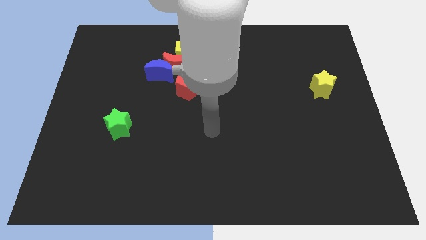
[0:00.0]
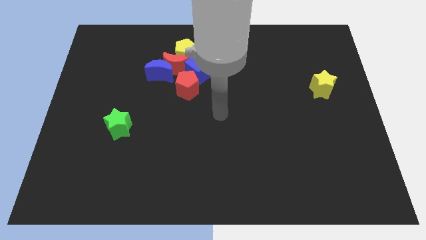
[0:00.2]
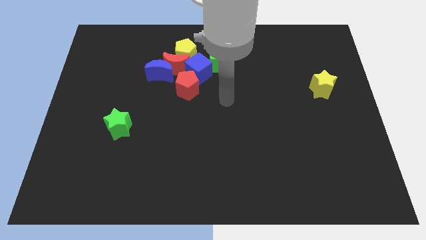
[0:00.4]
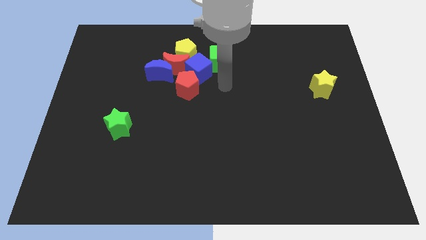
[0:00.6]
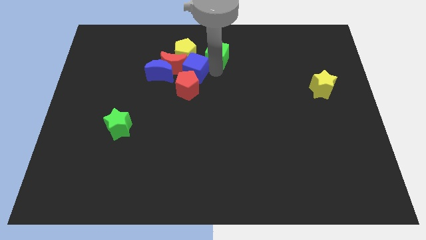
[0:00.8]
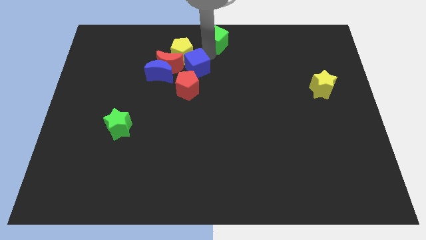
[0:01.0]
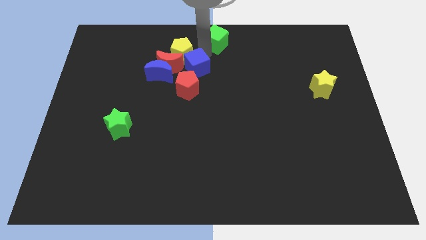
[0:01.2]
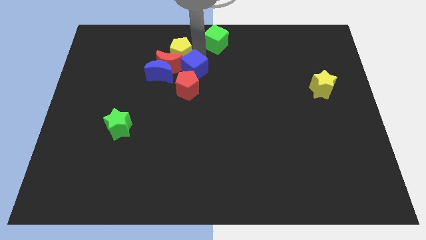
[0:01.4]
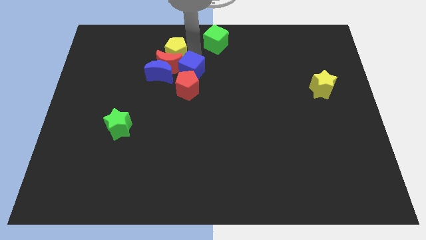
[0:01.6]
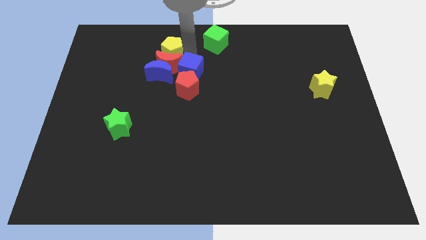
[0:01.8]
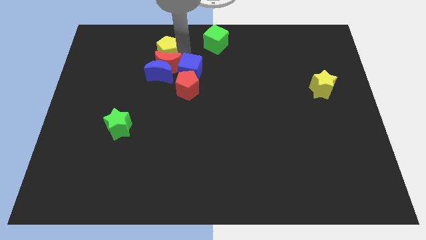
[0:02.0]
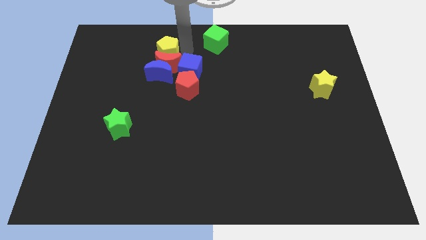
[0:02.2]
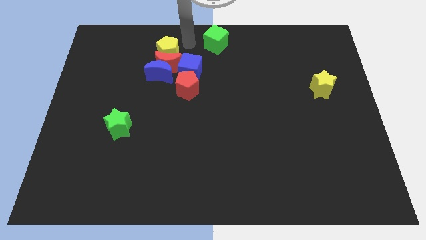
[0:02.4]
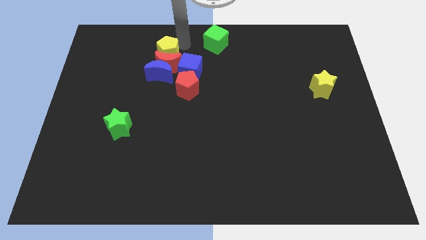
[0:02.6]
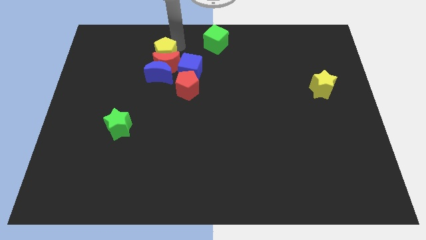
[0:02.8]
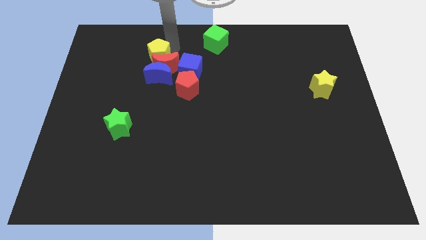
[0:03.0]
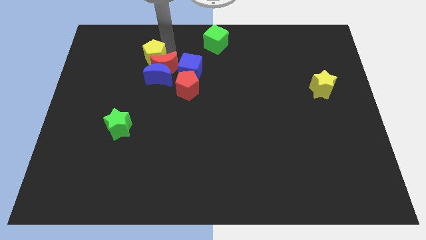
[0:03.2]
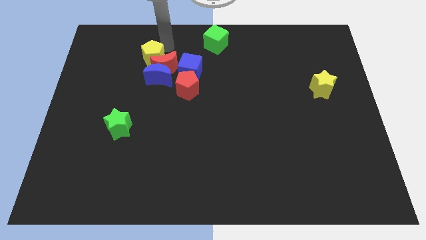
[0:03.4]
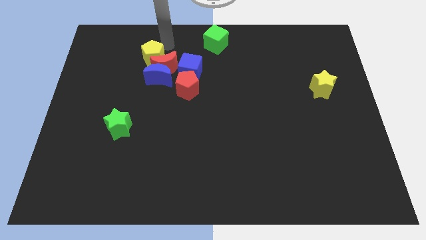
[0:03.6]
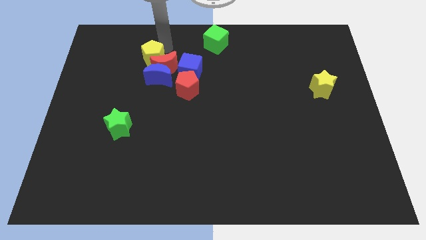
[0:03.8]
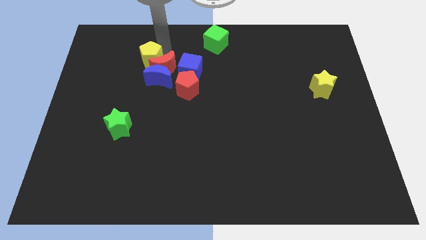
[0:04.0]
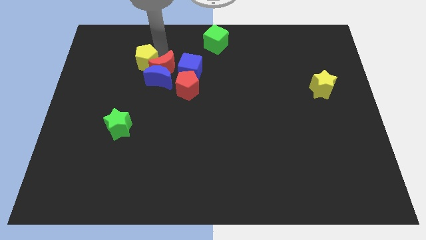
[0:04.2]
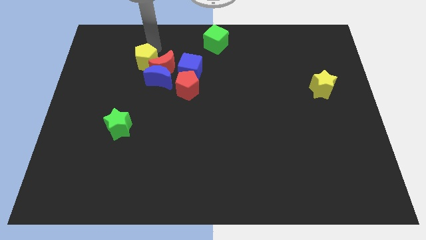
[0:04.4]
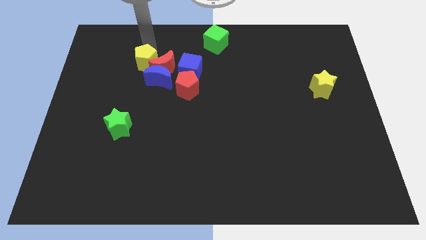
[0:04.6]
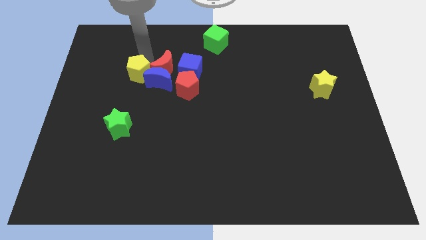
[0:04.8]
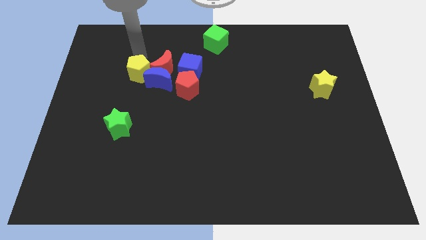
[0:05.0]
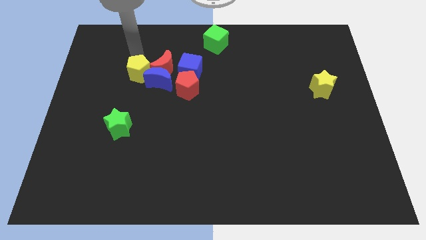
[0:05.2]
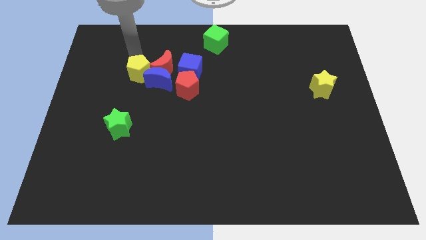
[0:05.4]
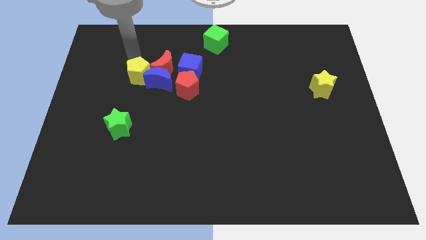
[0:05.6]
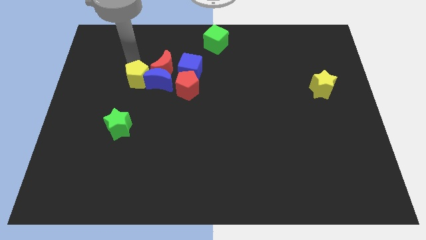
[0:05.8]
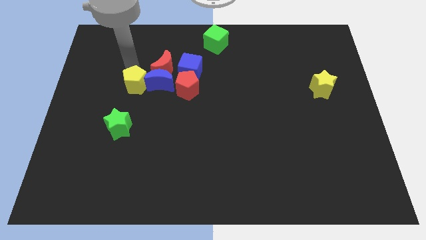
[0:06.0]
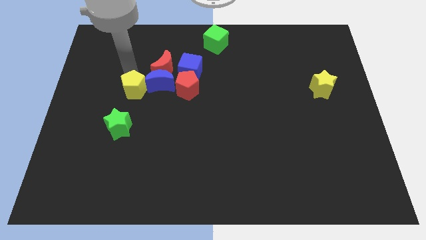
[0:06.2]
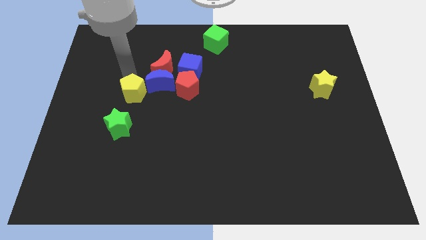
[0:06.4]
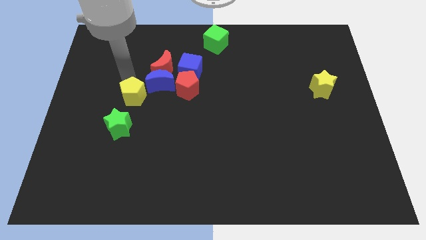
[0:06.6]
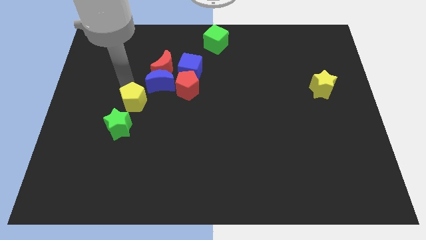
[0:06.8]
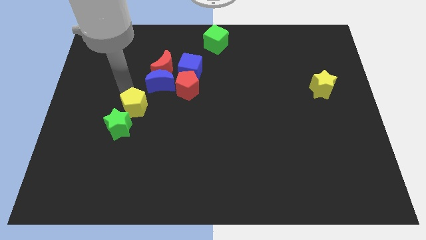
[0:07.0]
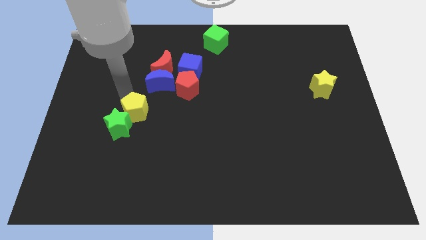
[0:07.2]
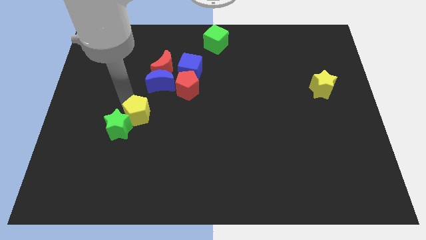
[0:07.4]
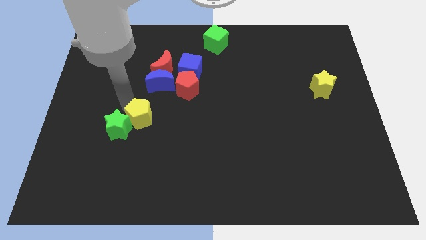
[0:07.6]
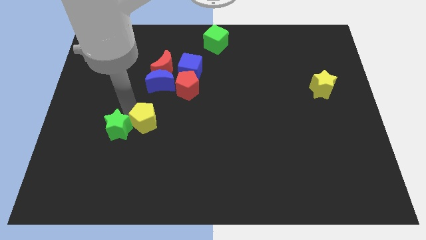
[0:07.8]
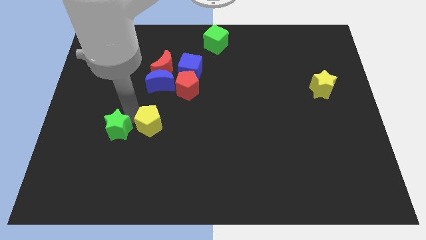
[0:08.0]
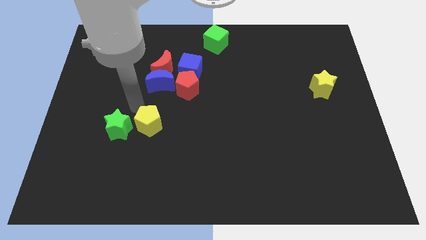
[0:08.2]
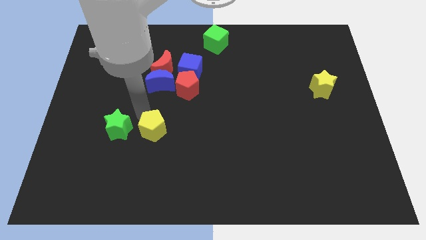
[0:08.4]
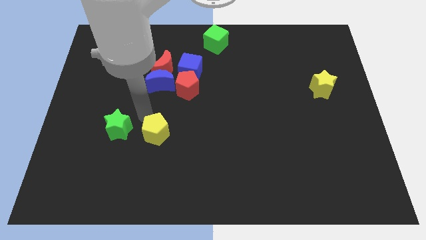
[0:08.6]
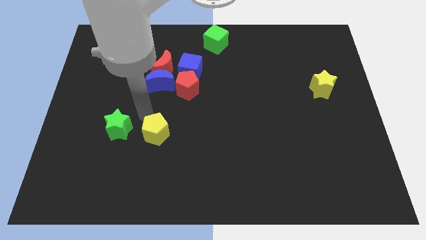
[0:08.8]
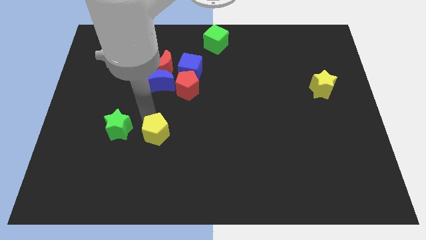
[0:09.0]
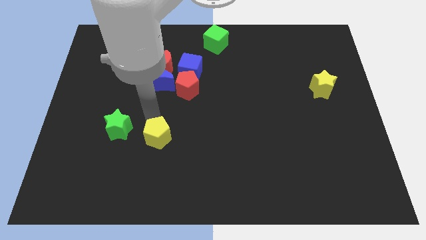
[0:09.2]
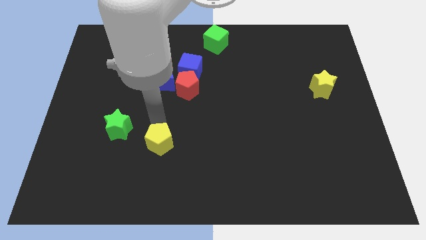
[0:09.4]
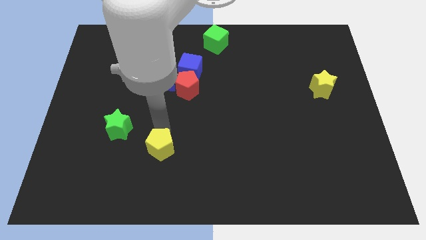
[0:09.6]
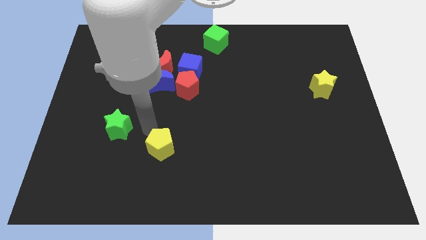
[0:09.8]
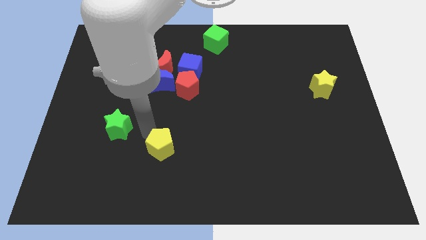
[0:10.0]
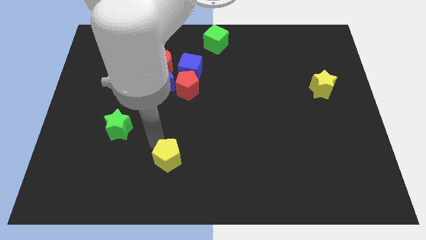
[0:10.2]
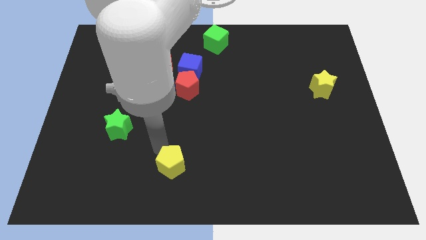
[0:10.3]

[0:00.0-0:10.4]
push the yellow pentagon to the bottom

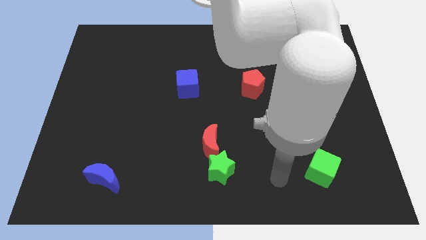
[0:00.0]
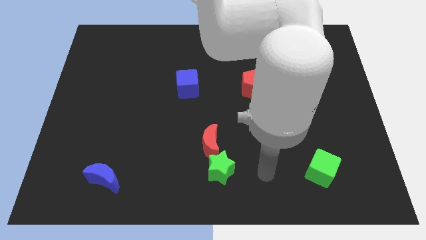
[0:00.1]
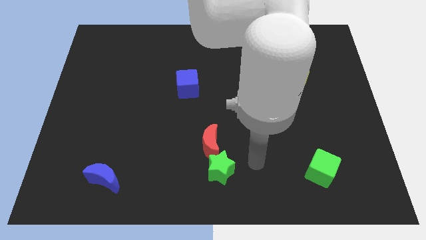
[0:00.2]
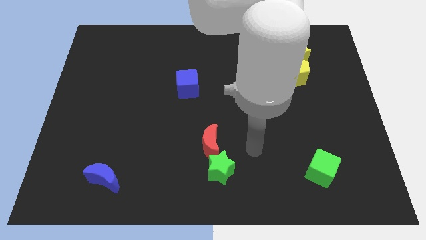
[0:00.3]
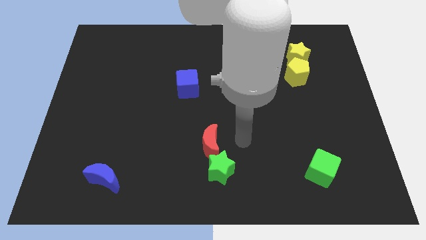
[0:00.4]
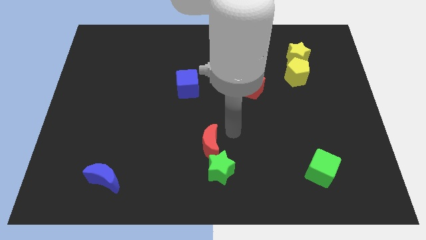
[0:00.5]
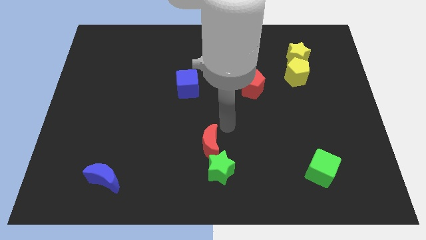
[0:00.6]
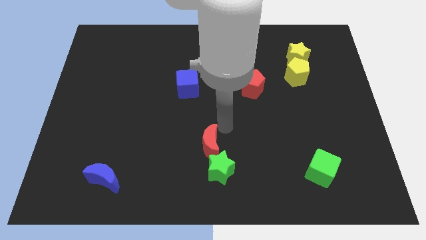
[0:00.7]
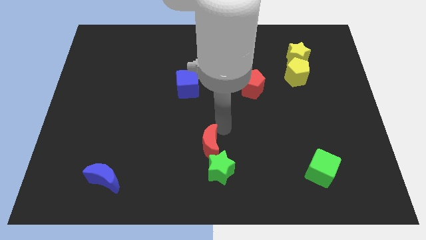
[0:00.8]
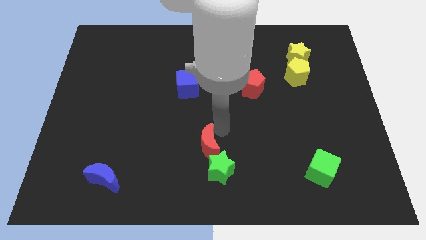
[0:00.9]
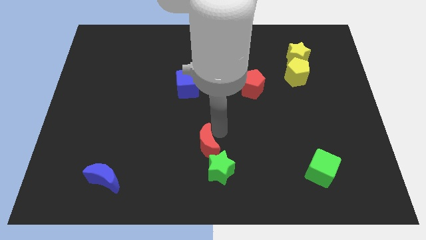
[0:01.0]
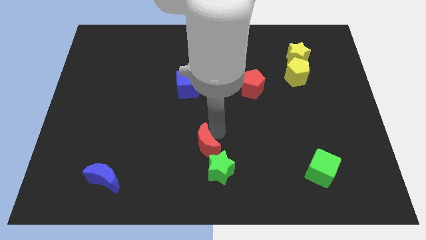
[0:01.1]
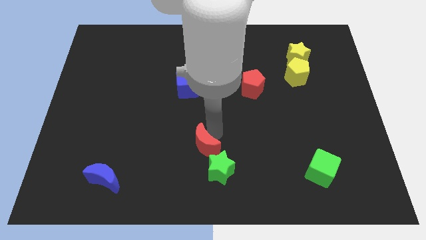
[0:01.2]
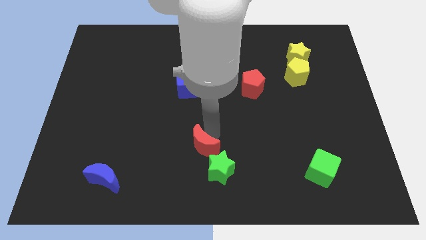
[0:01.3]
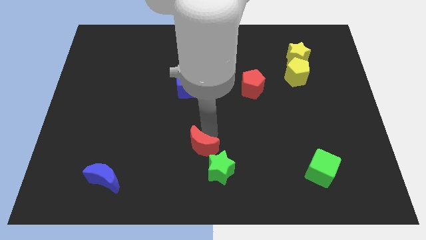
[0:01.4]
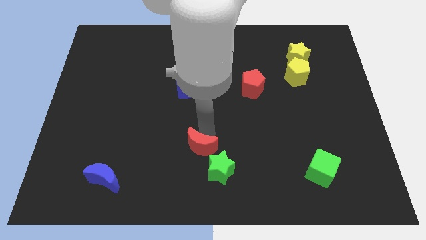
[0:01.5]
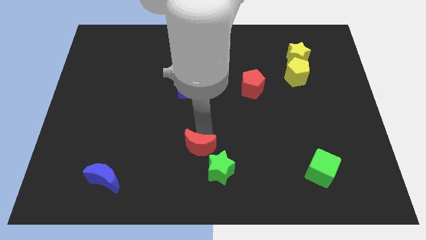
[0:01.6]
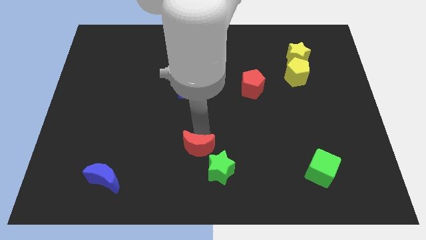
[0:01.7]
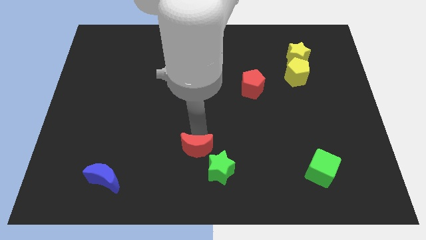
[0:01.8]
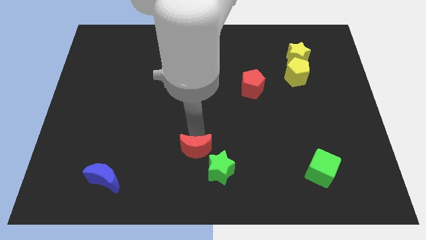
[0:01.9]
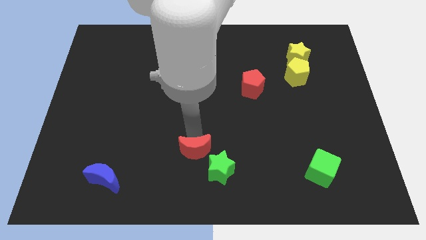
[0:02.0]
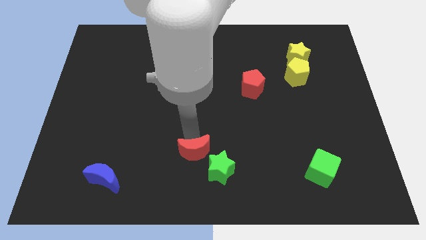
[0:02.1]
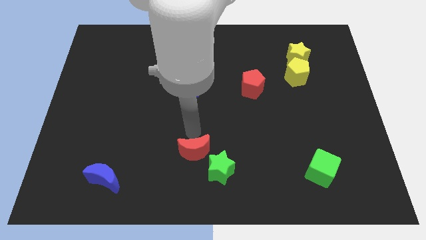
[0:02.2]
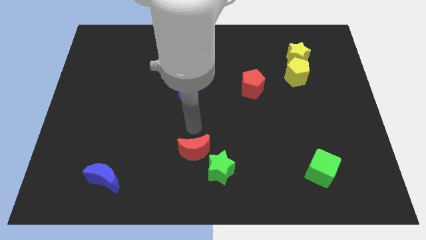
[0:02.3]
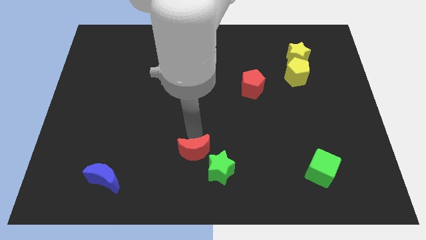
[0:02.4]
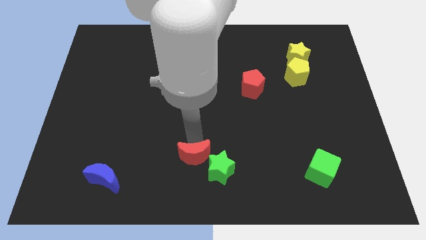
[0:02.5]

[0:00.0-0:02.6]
slide the red moon to the bottom
